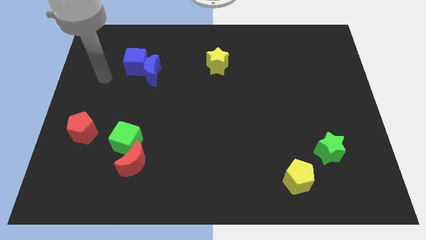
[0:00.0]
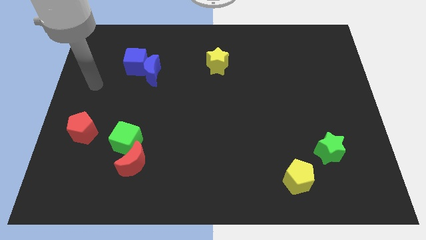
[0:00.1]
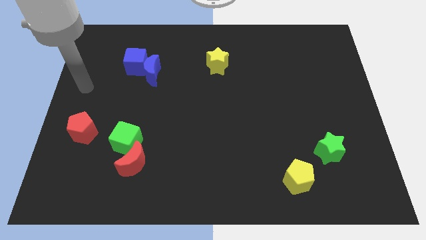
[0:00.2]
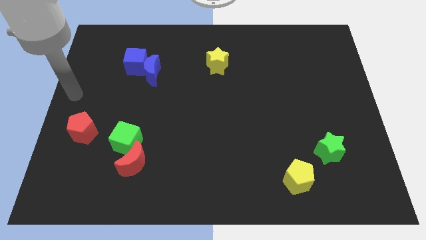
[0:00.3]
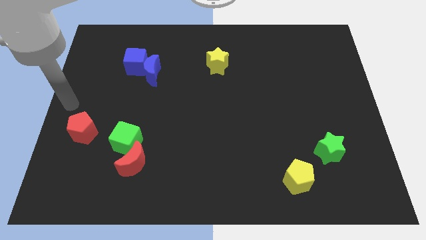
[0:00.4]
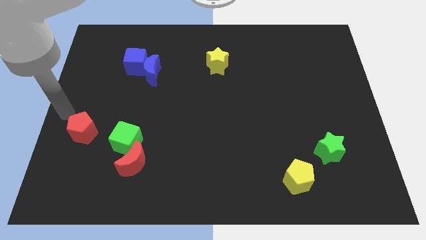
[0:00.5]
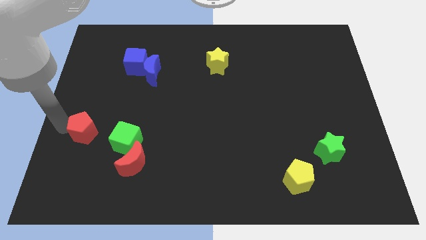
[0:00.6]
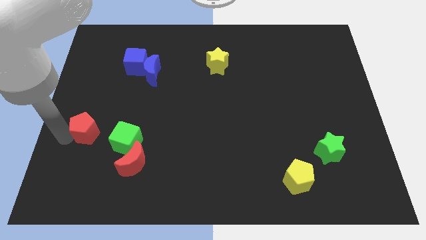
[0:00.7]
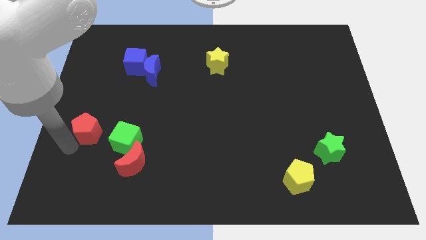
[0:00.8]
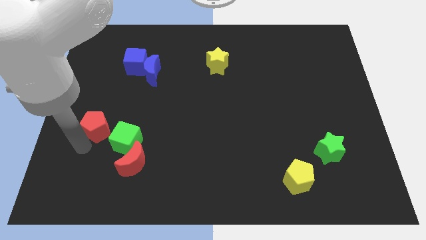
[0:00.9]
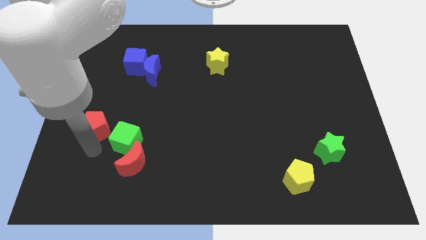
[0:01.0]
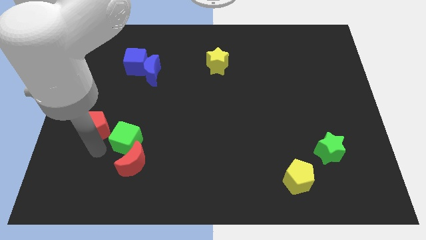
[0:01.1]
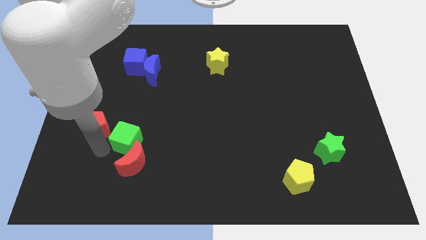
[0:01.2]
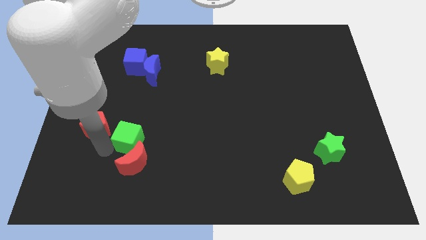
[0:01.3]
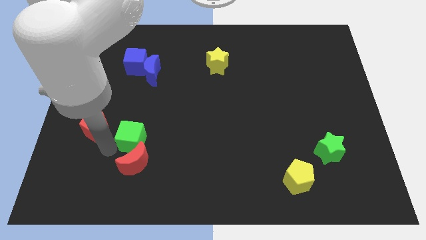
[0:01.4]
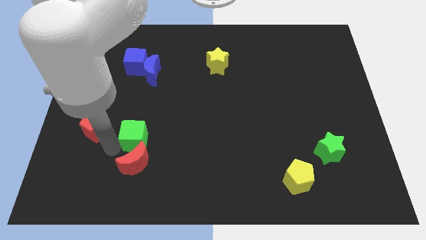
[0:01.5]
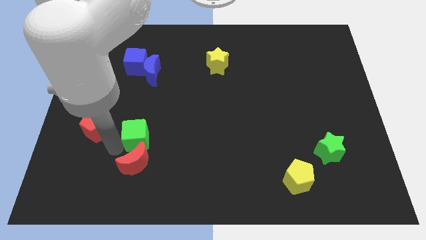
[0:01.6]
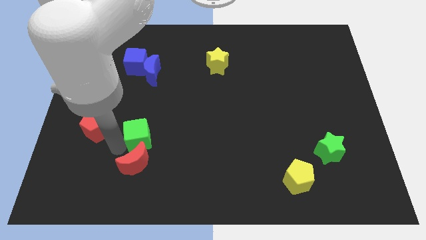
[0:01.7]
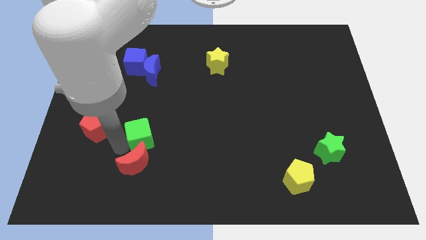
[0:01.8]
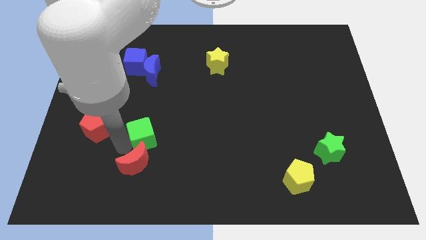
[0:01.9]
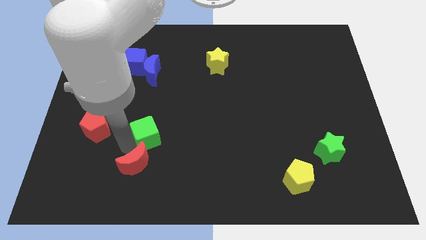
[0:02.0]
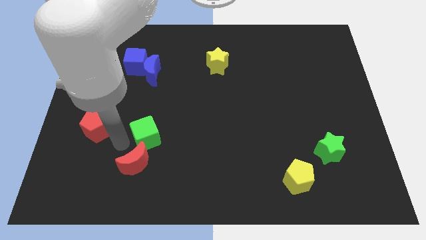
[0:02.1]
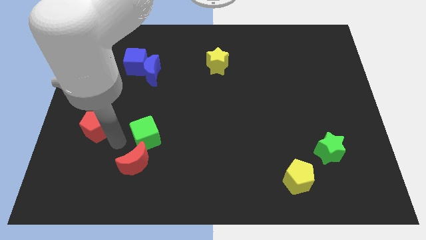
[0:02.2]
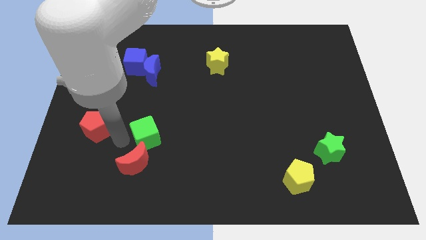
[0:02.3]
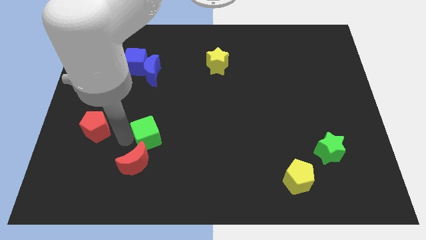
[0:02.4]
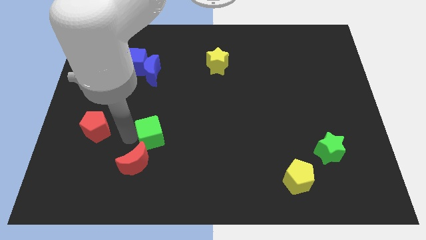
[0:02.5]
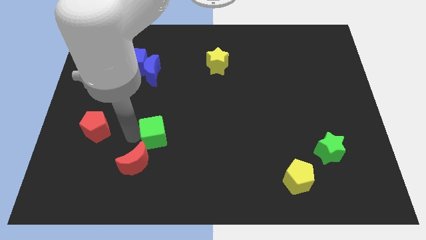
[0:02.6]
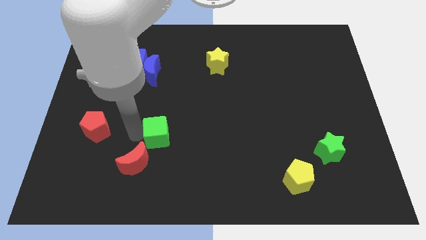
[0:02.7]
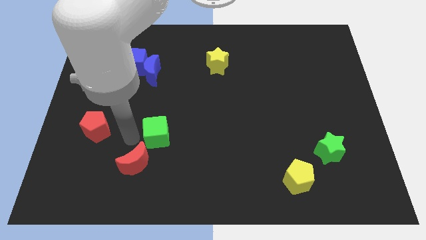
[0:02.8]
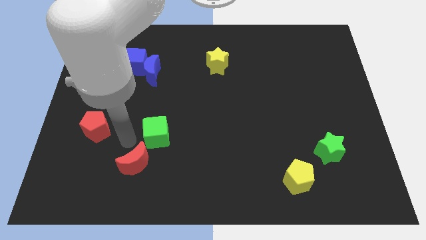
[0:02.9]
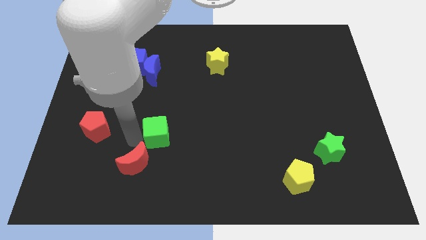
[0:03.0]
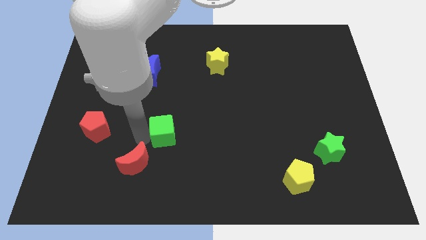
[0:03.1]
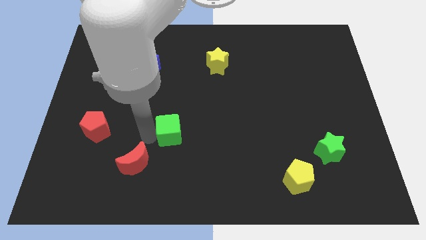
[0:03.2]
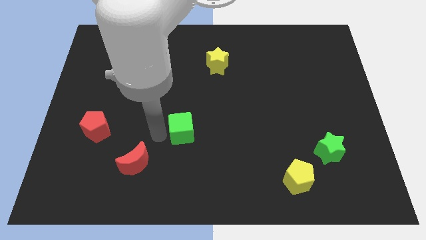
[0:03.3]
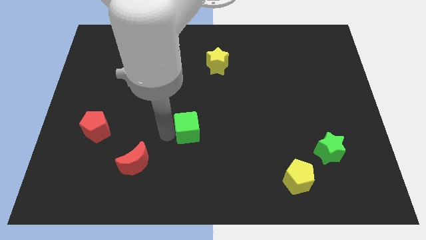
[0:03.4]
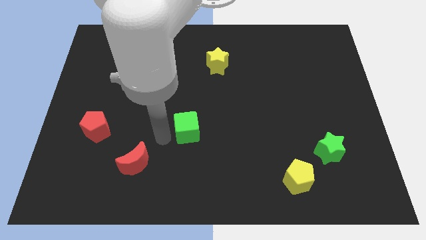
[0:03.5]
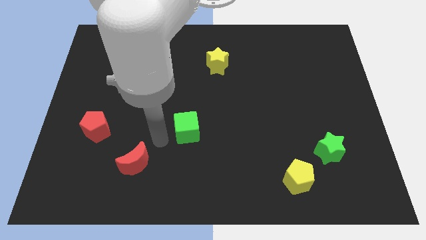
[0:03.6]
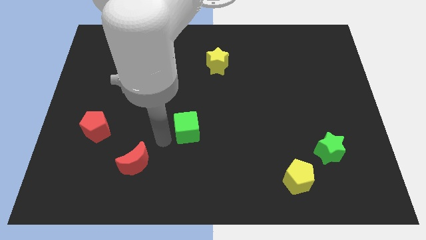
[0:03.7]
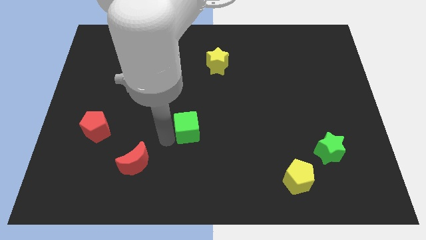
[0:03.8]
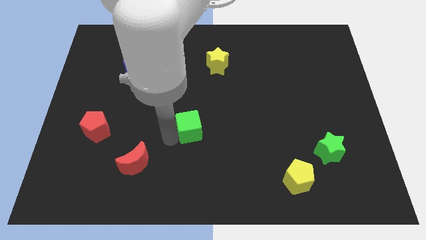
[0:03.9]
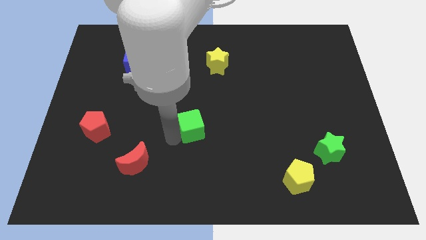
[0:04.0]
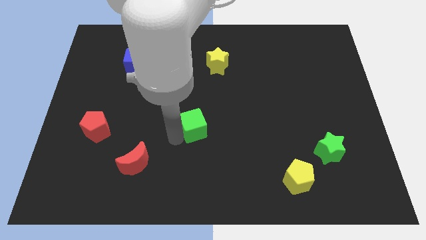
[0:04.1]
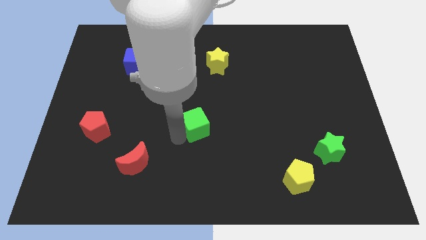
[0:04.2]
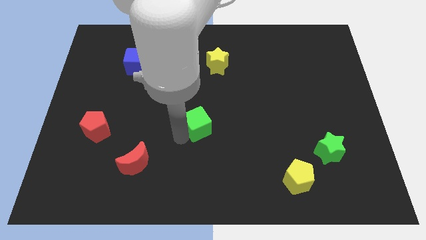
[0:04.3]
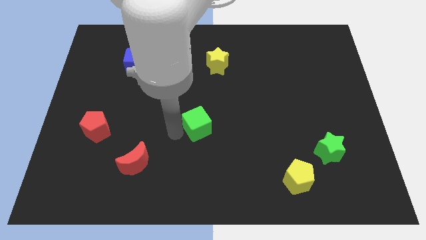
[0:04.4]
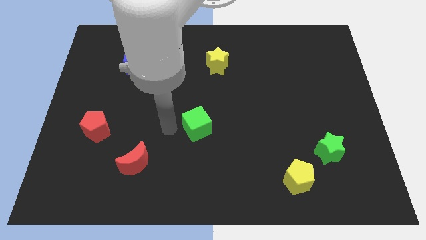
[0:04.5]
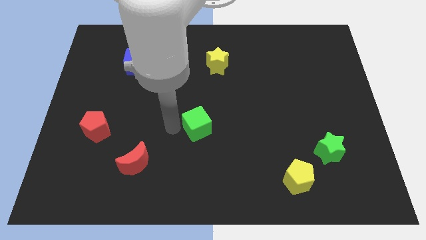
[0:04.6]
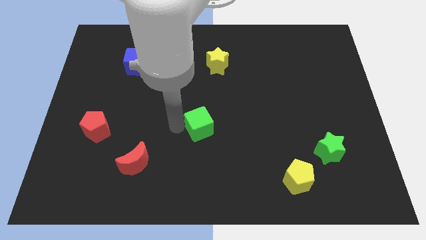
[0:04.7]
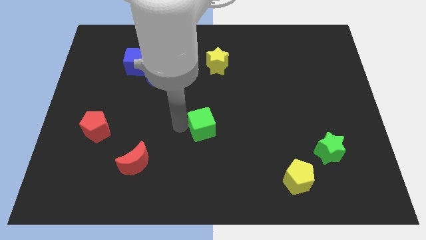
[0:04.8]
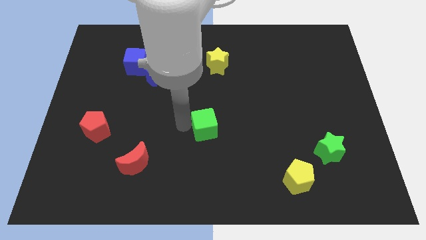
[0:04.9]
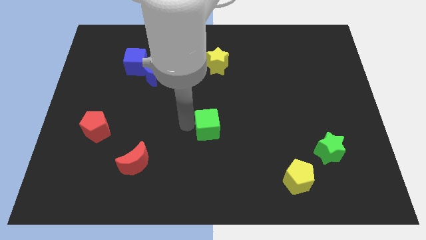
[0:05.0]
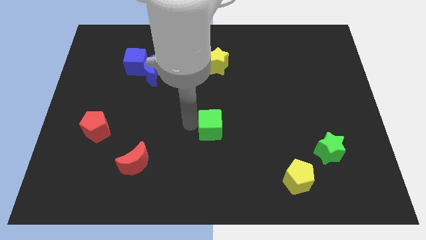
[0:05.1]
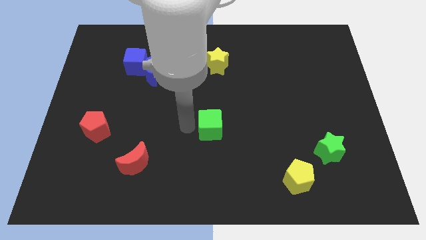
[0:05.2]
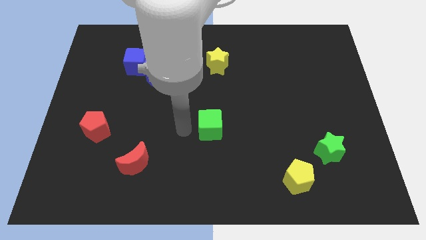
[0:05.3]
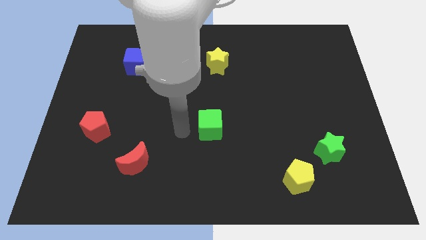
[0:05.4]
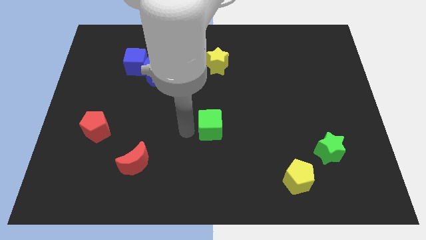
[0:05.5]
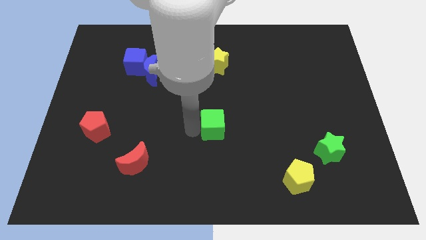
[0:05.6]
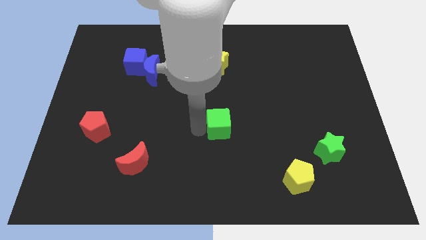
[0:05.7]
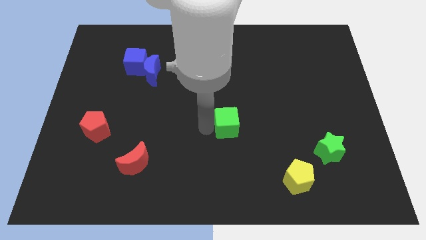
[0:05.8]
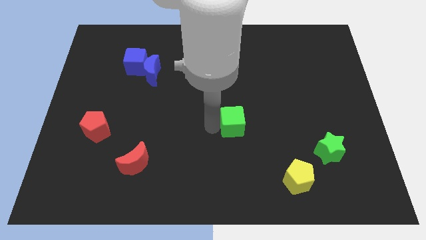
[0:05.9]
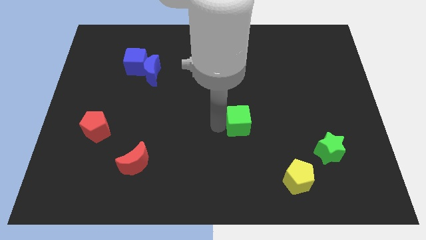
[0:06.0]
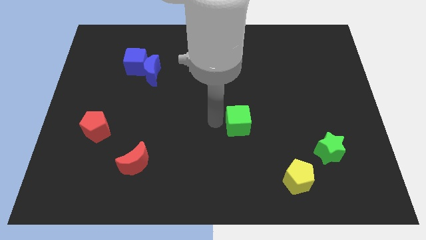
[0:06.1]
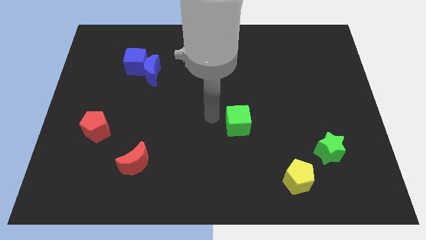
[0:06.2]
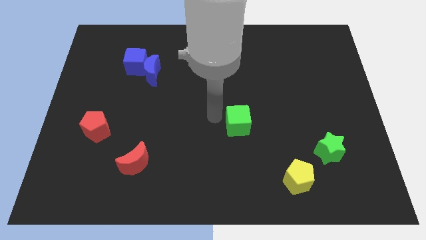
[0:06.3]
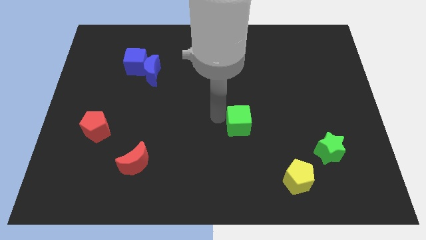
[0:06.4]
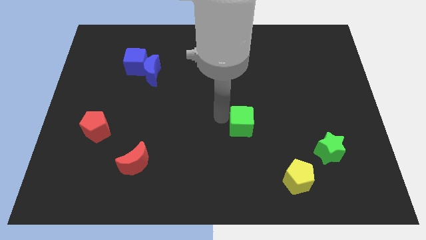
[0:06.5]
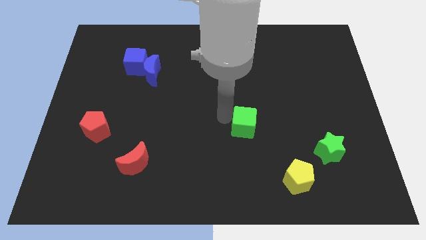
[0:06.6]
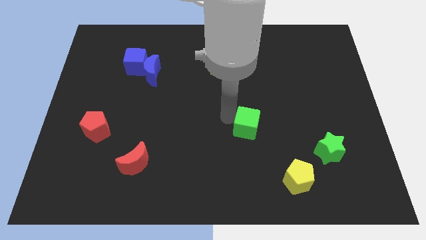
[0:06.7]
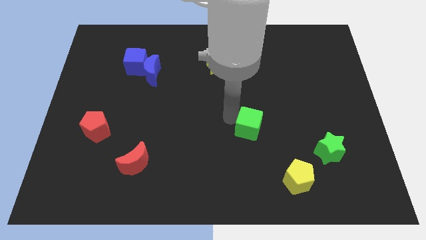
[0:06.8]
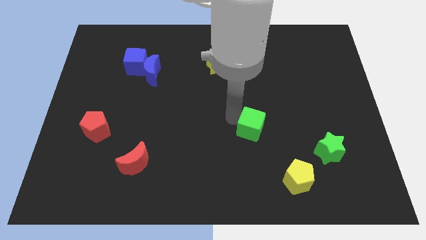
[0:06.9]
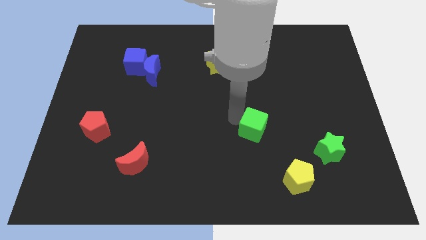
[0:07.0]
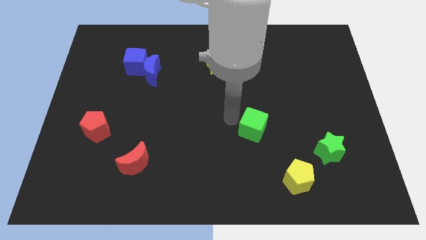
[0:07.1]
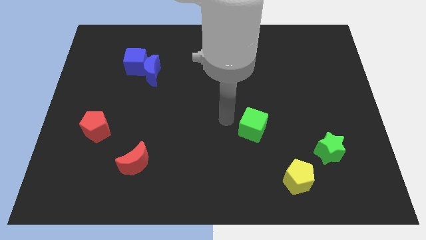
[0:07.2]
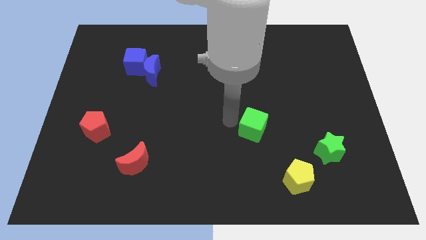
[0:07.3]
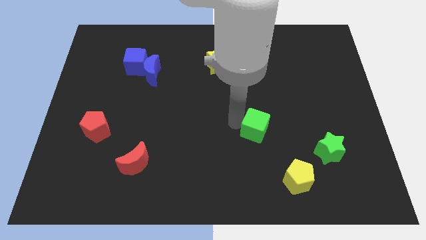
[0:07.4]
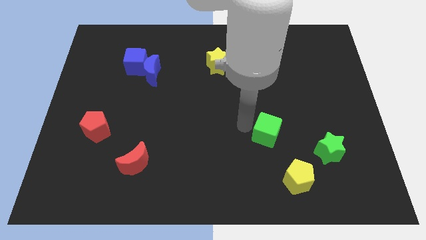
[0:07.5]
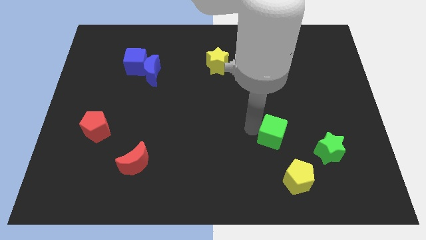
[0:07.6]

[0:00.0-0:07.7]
push the green cube to the top of the yellow pentagon
